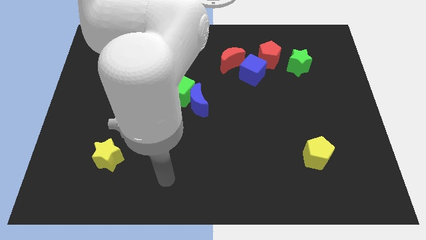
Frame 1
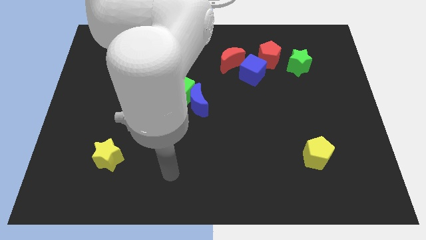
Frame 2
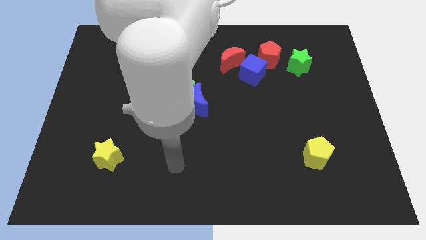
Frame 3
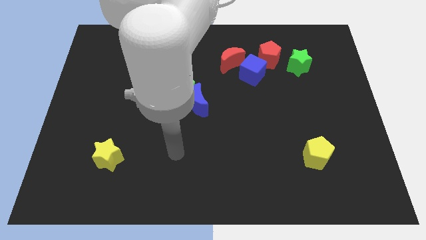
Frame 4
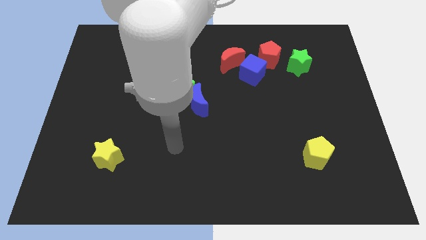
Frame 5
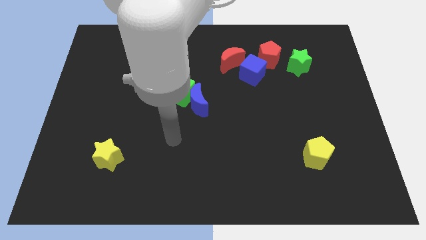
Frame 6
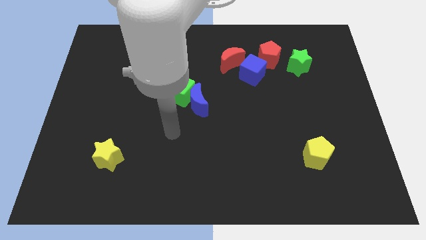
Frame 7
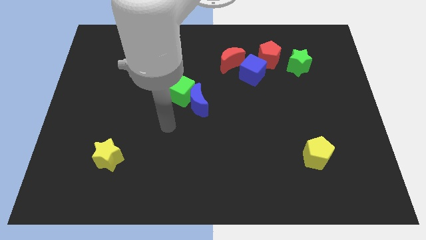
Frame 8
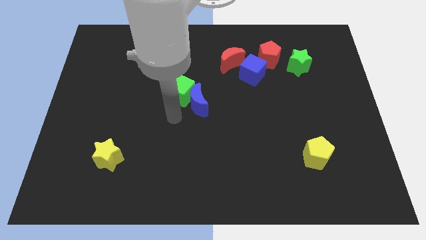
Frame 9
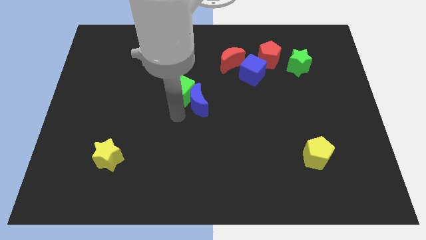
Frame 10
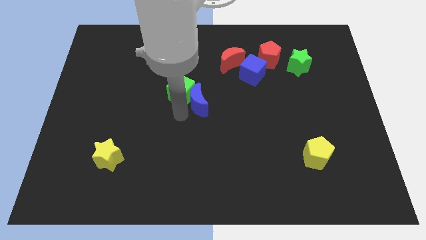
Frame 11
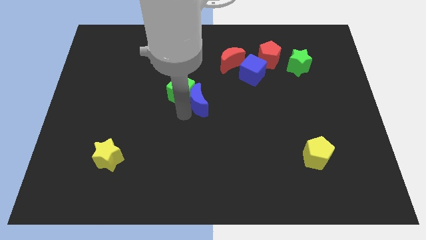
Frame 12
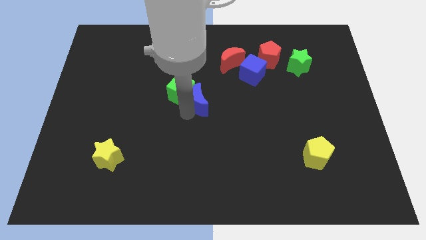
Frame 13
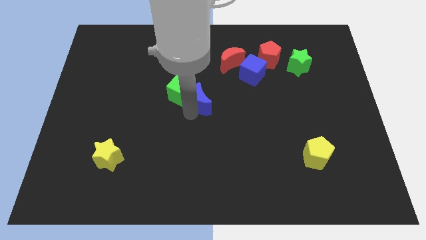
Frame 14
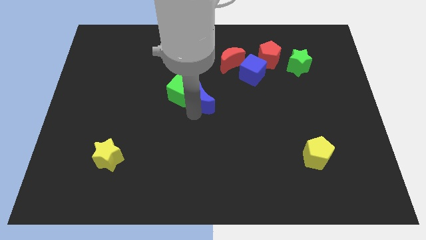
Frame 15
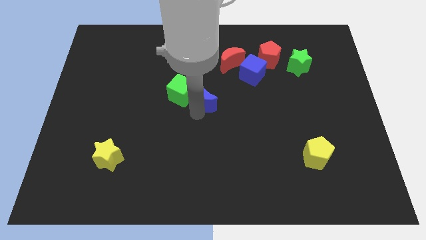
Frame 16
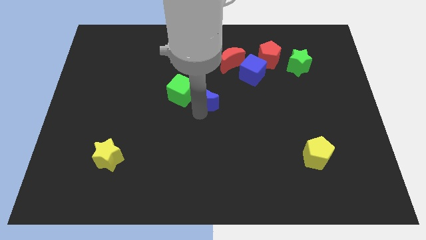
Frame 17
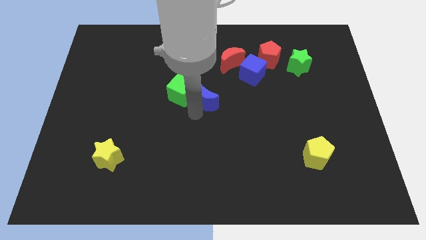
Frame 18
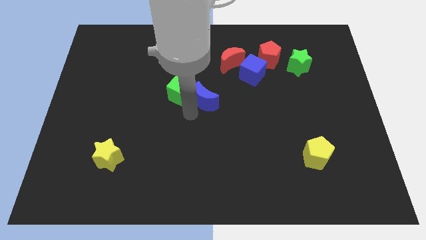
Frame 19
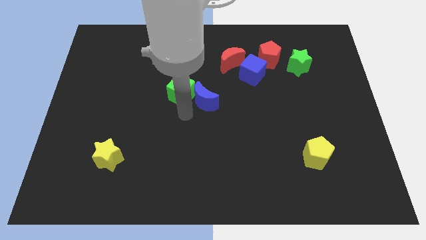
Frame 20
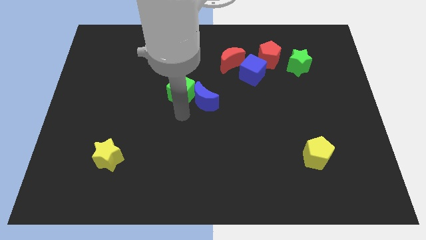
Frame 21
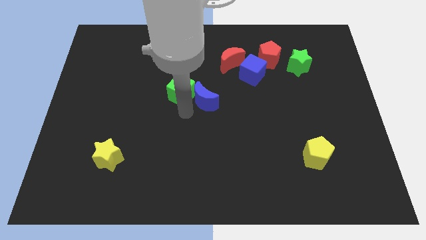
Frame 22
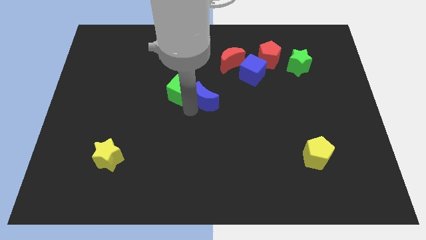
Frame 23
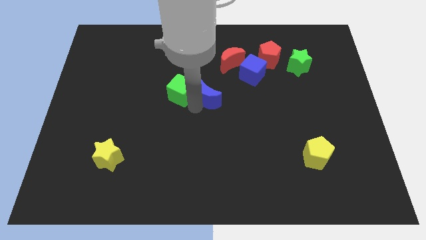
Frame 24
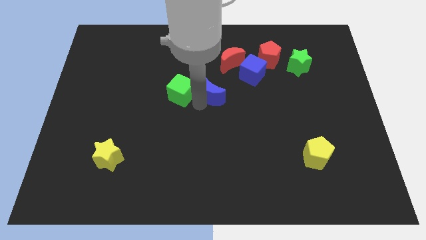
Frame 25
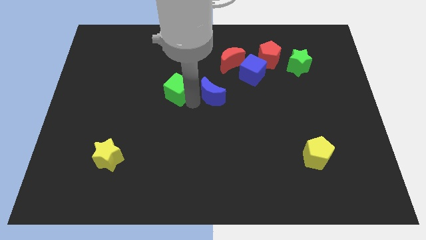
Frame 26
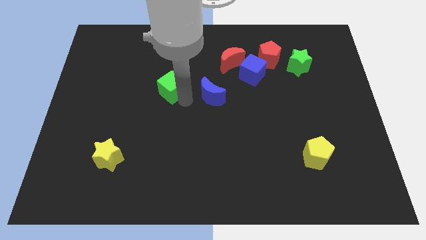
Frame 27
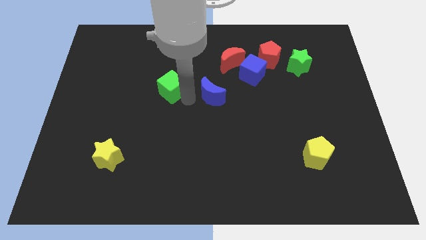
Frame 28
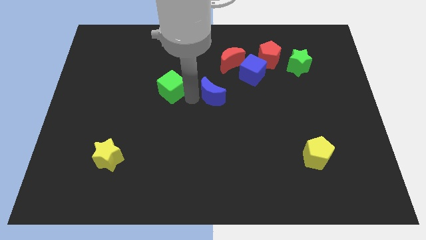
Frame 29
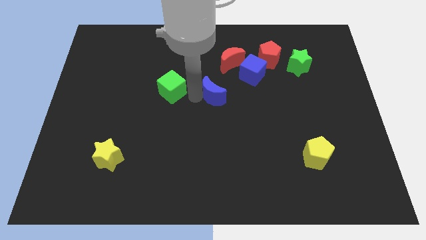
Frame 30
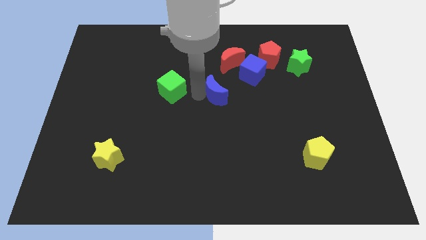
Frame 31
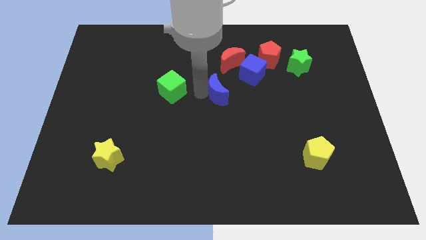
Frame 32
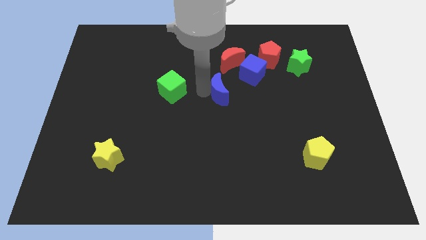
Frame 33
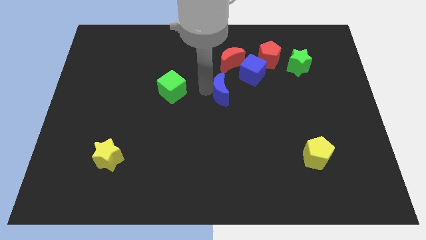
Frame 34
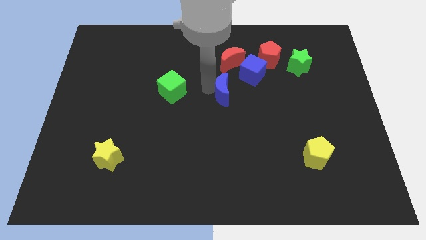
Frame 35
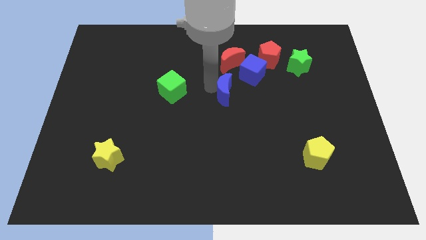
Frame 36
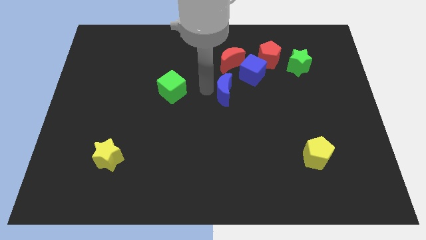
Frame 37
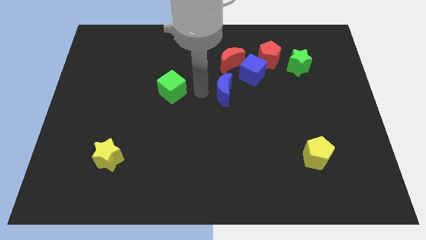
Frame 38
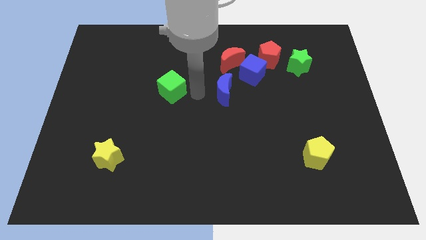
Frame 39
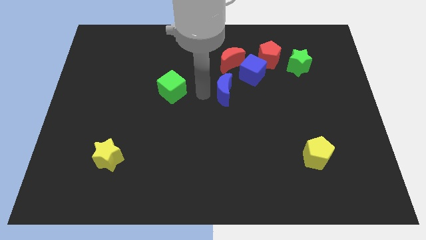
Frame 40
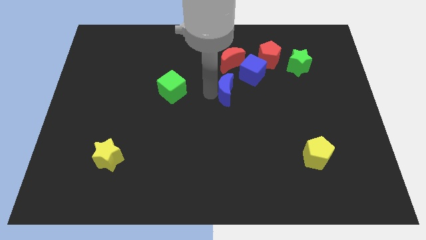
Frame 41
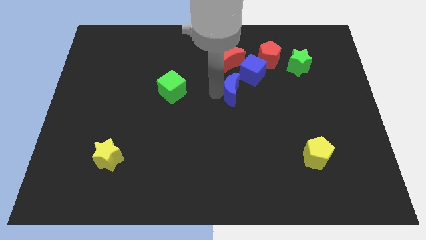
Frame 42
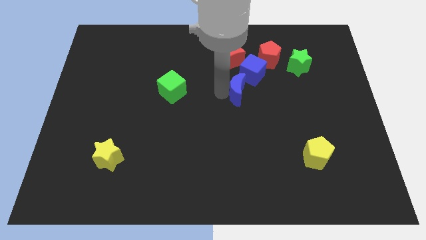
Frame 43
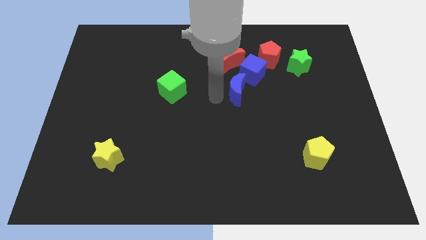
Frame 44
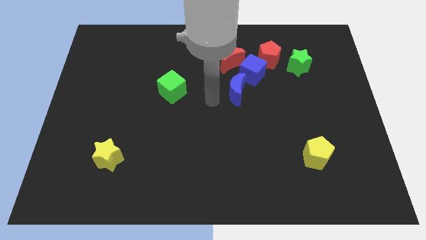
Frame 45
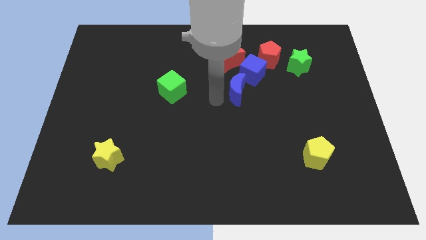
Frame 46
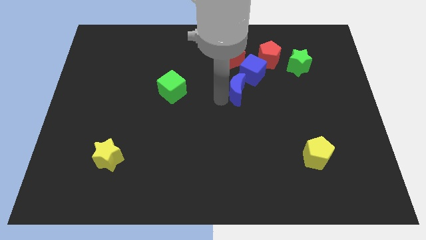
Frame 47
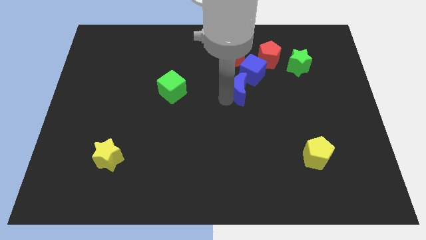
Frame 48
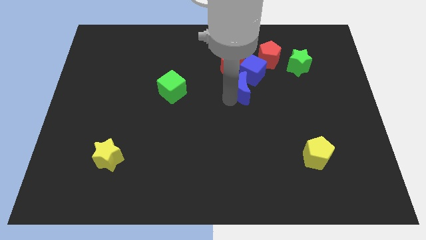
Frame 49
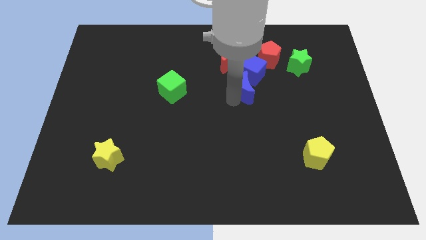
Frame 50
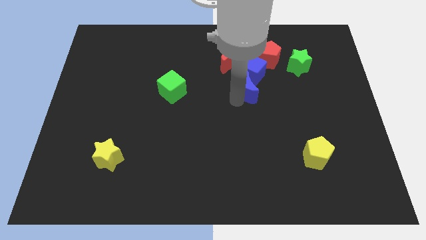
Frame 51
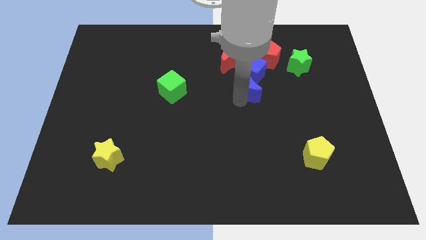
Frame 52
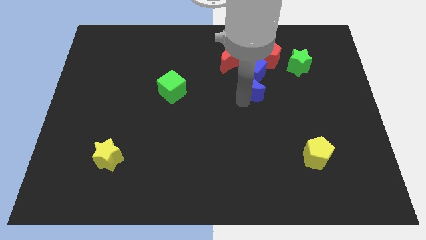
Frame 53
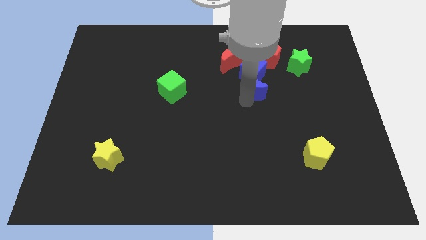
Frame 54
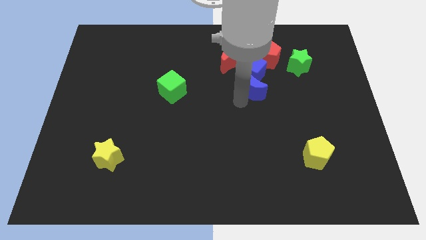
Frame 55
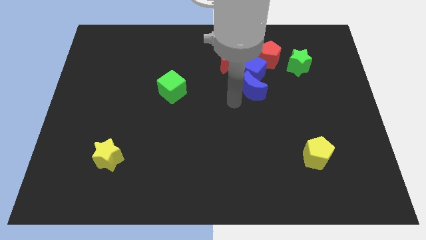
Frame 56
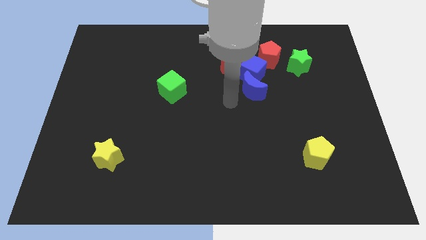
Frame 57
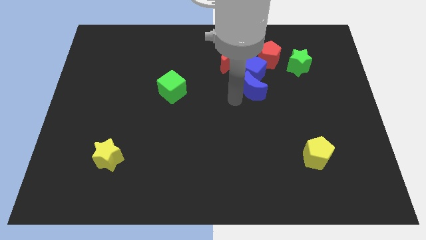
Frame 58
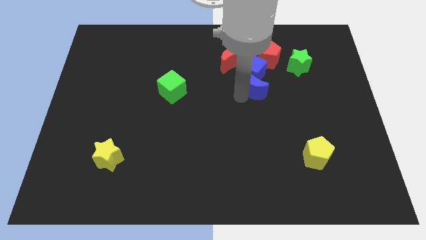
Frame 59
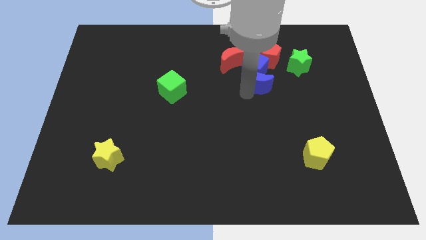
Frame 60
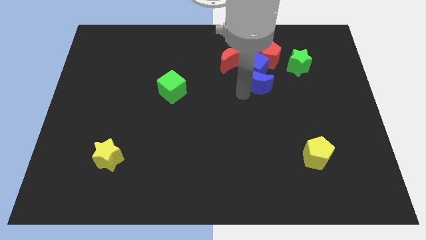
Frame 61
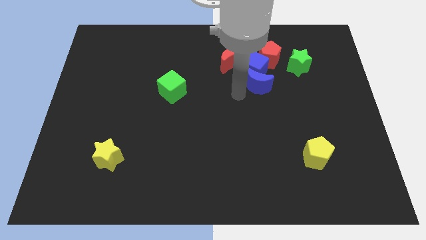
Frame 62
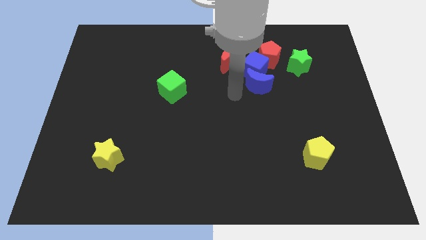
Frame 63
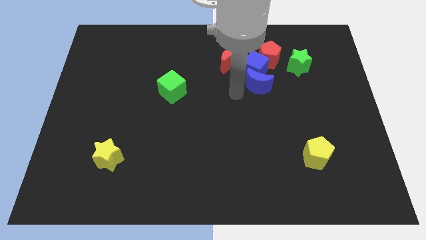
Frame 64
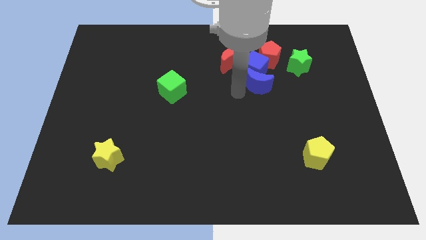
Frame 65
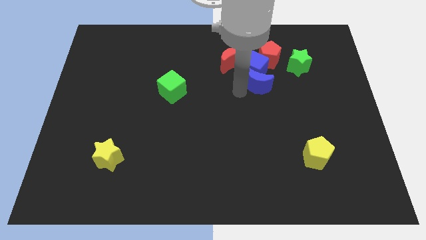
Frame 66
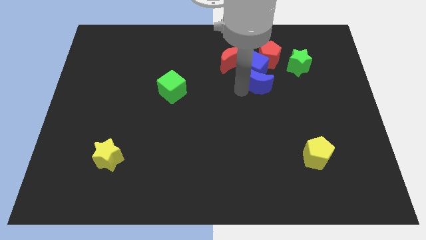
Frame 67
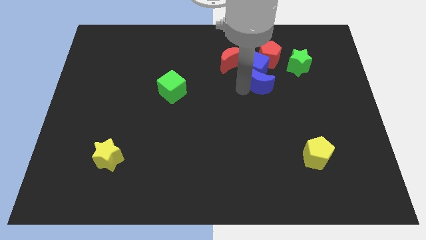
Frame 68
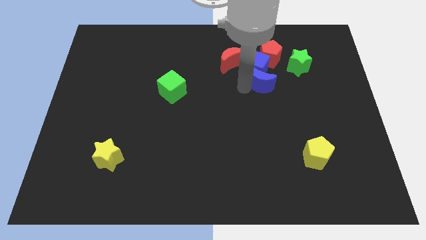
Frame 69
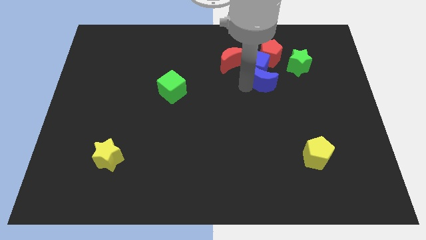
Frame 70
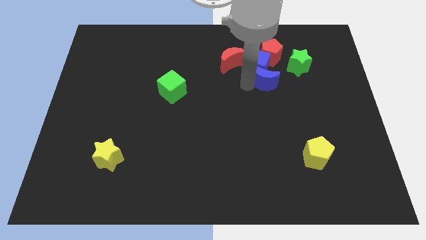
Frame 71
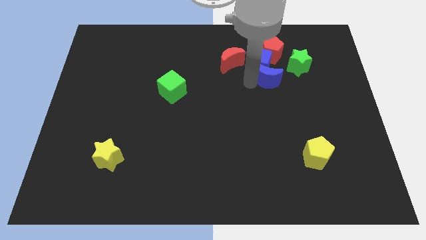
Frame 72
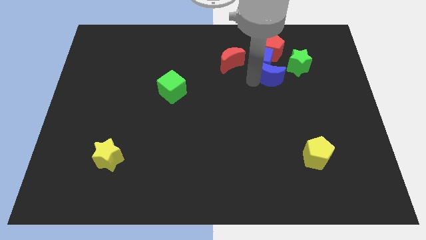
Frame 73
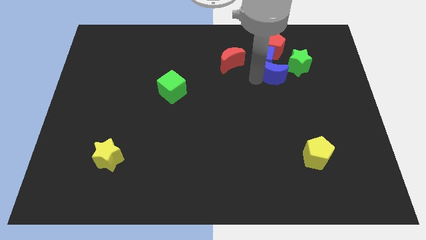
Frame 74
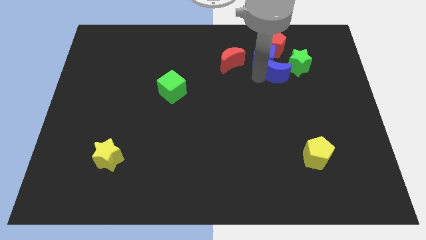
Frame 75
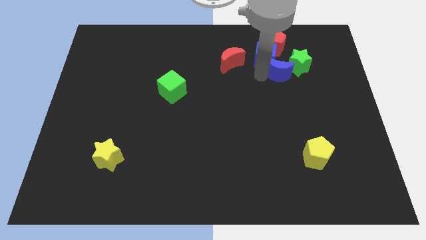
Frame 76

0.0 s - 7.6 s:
slide the blue moon next to the green star
